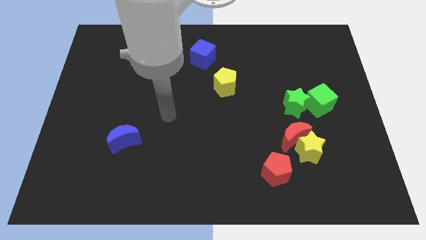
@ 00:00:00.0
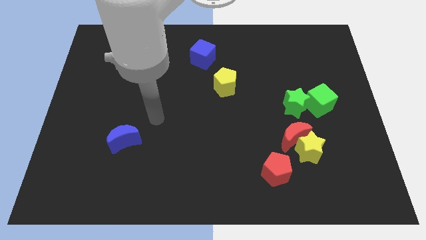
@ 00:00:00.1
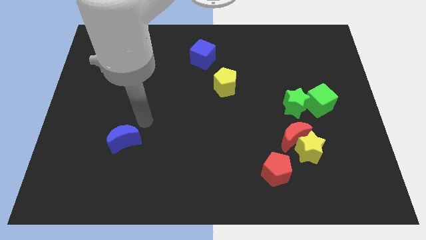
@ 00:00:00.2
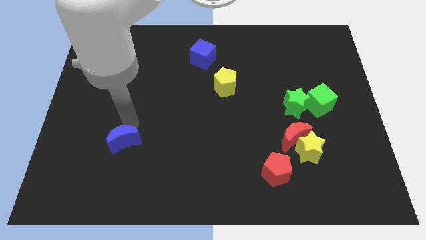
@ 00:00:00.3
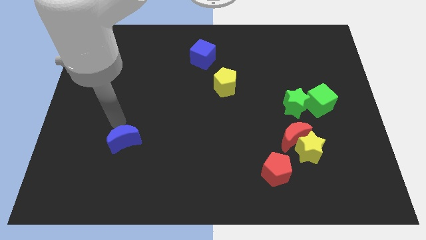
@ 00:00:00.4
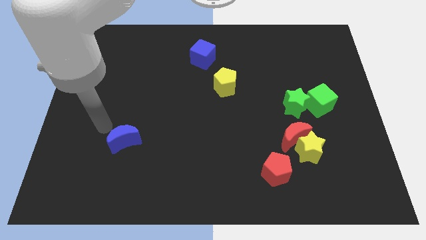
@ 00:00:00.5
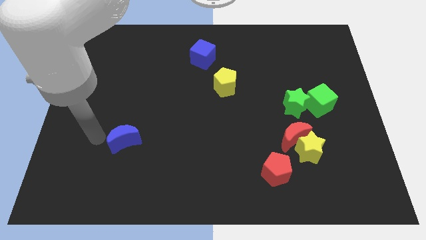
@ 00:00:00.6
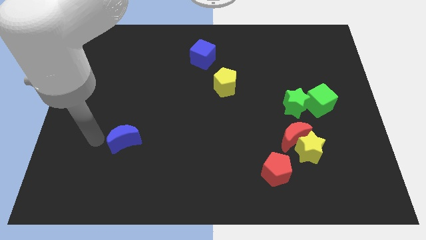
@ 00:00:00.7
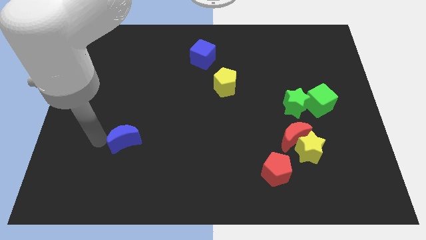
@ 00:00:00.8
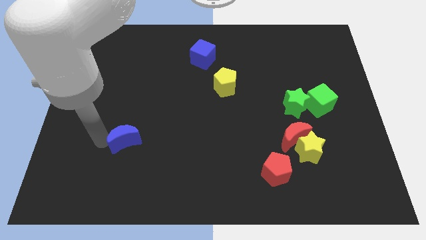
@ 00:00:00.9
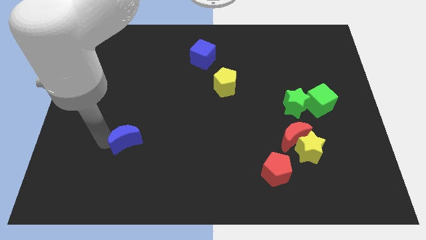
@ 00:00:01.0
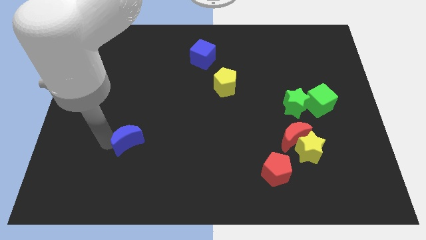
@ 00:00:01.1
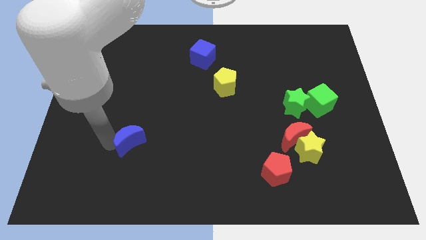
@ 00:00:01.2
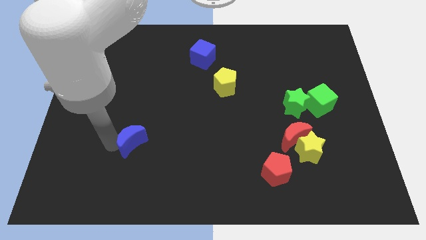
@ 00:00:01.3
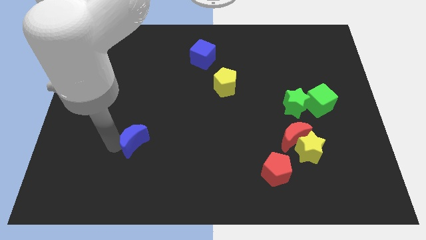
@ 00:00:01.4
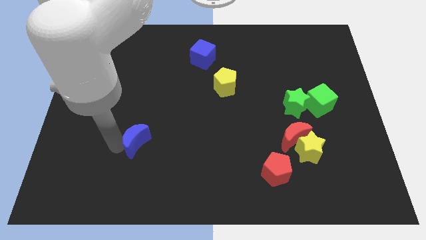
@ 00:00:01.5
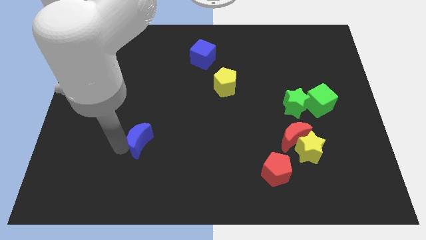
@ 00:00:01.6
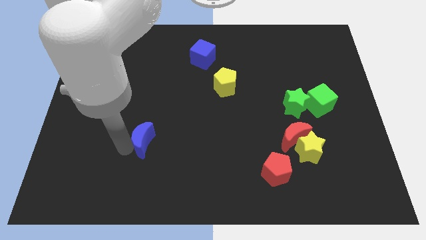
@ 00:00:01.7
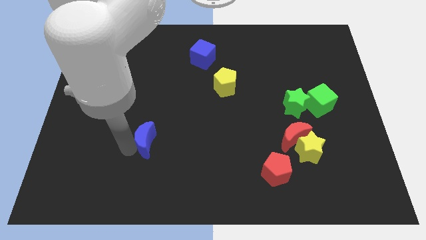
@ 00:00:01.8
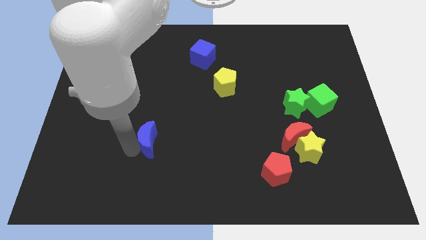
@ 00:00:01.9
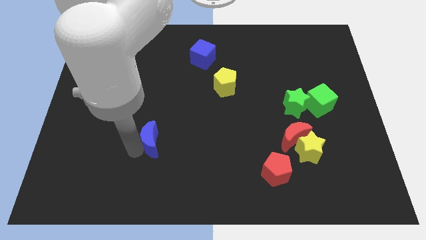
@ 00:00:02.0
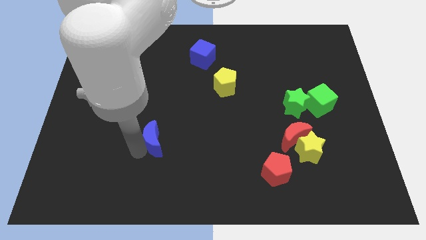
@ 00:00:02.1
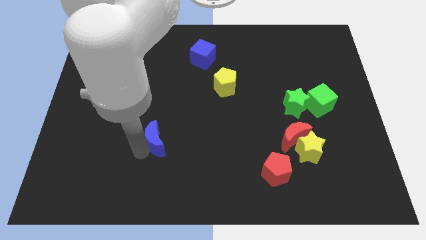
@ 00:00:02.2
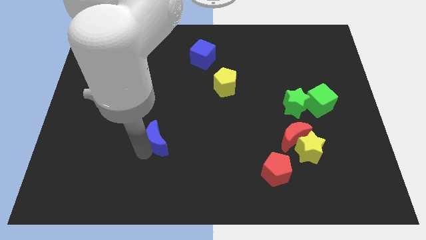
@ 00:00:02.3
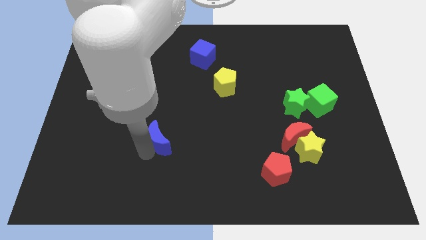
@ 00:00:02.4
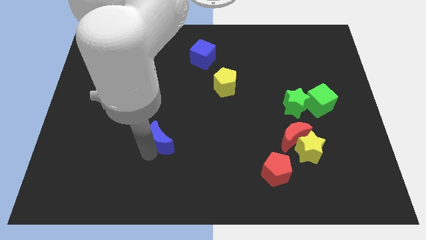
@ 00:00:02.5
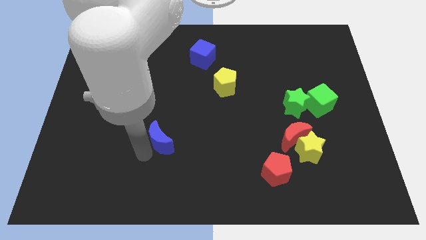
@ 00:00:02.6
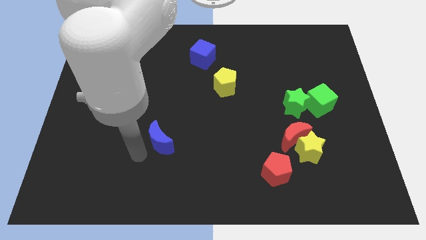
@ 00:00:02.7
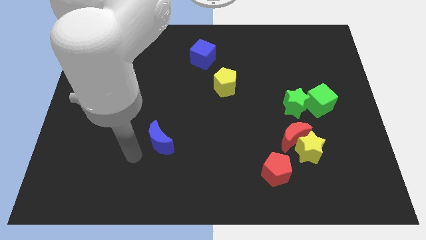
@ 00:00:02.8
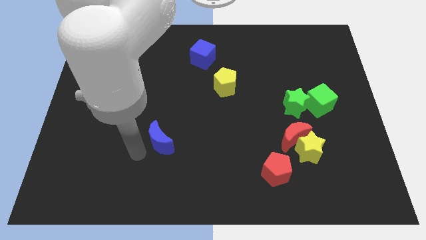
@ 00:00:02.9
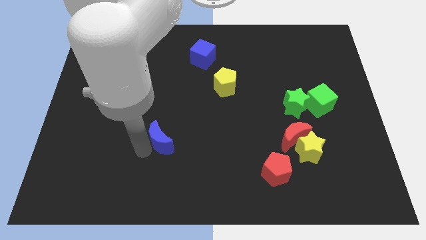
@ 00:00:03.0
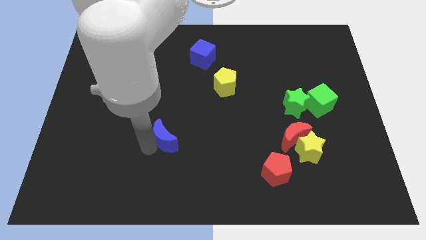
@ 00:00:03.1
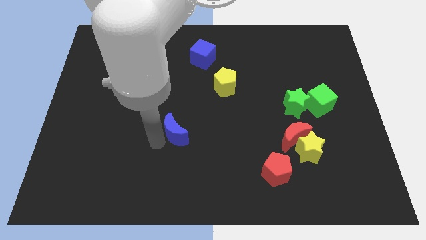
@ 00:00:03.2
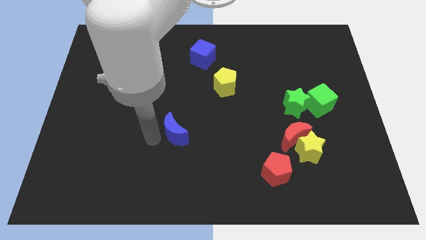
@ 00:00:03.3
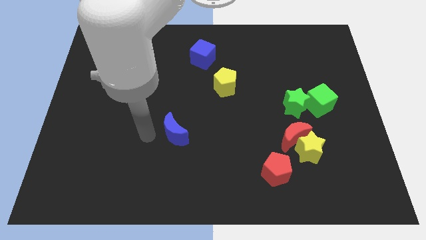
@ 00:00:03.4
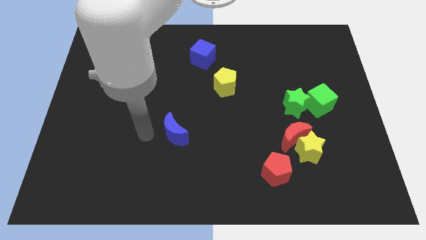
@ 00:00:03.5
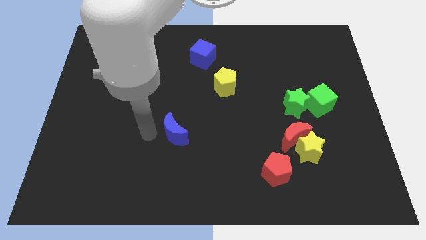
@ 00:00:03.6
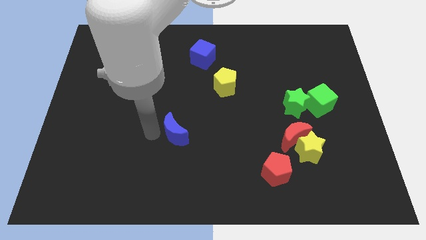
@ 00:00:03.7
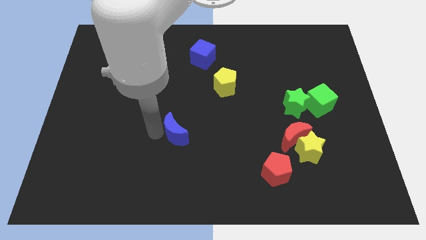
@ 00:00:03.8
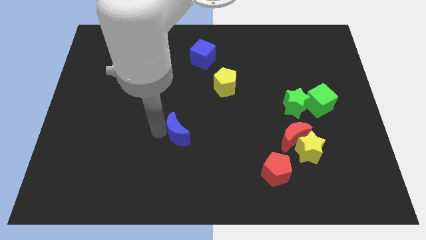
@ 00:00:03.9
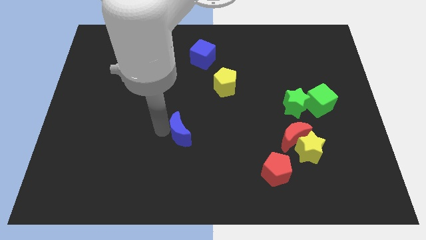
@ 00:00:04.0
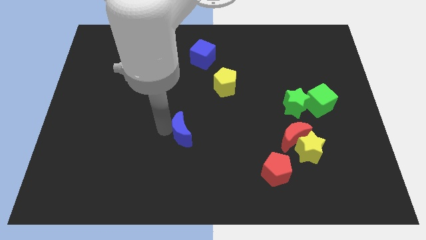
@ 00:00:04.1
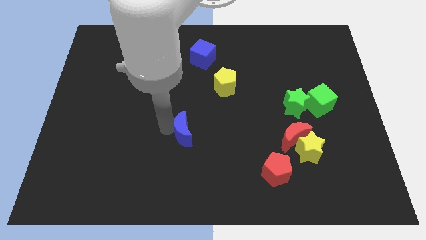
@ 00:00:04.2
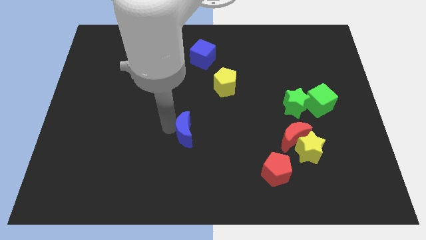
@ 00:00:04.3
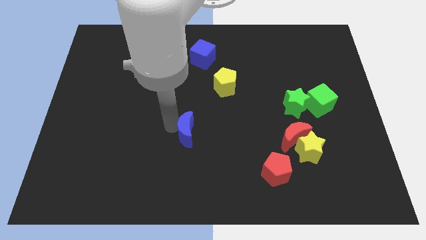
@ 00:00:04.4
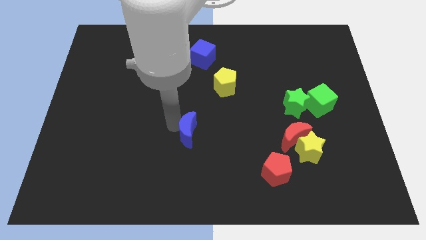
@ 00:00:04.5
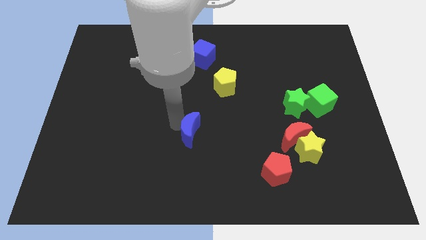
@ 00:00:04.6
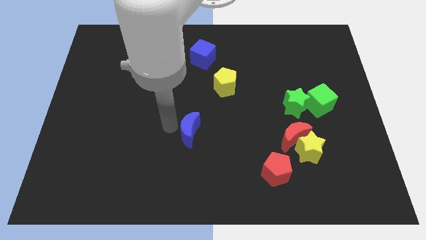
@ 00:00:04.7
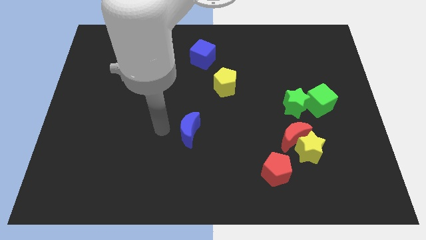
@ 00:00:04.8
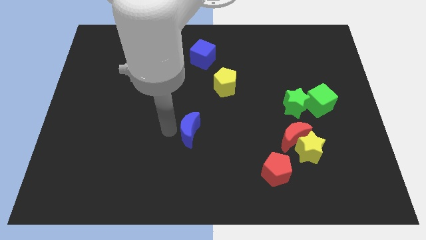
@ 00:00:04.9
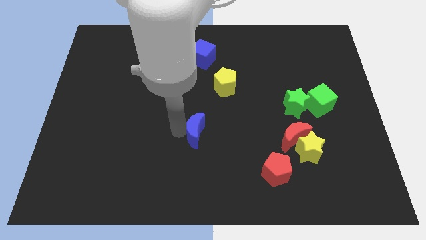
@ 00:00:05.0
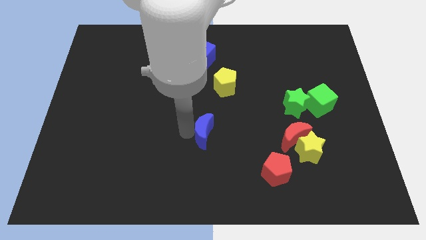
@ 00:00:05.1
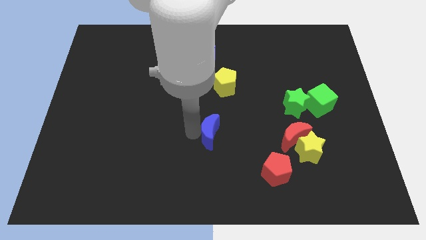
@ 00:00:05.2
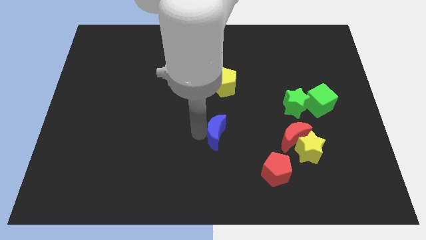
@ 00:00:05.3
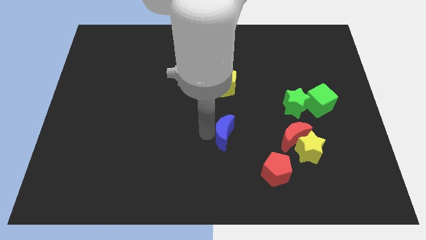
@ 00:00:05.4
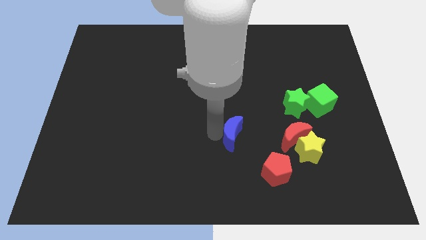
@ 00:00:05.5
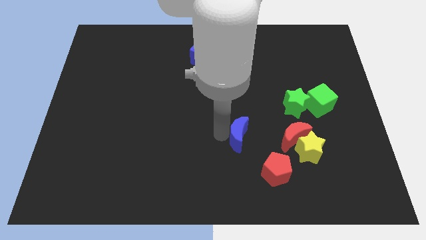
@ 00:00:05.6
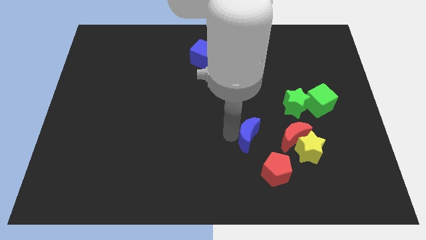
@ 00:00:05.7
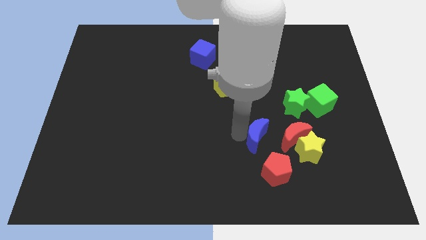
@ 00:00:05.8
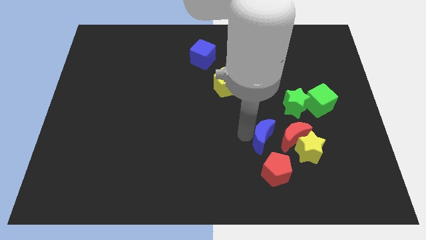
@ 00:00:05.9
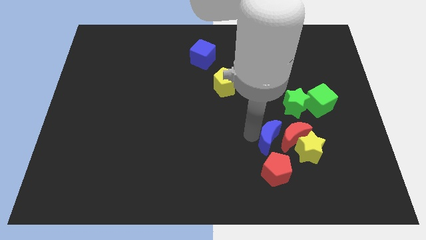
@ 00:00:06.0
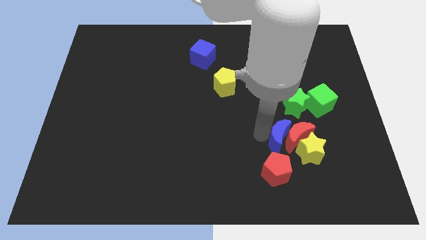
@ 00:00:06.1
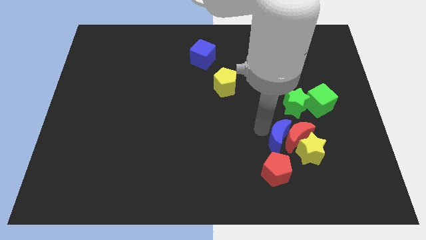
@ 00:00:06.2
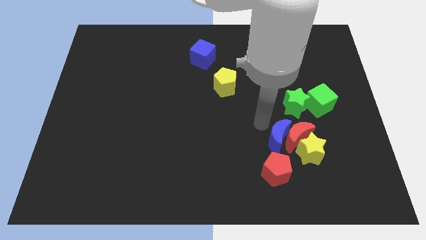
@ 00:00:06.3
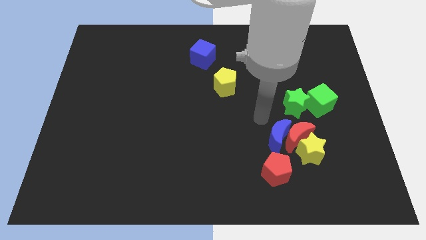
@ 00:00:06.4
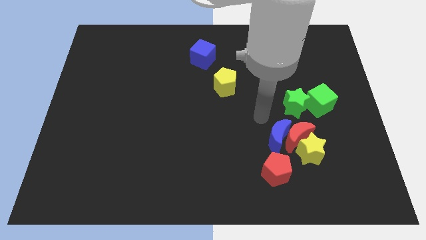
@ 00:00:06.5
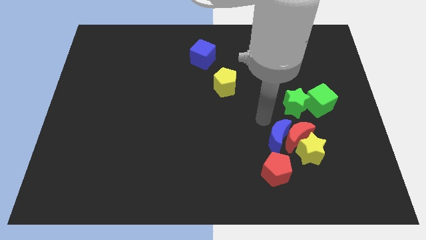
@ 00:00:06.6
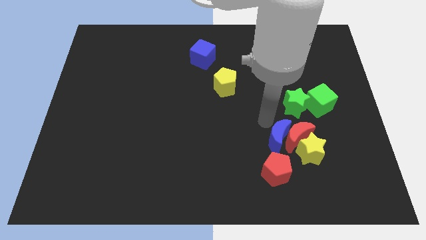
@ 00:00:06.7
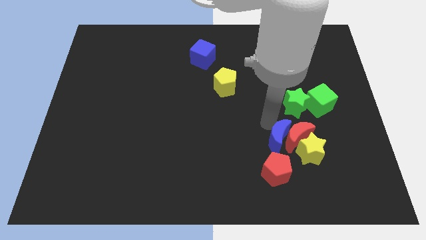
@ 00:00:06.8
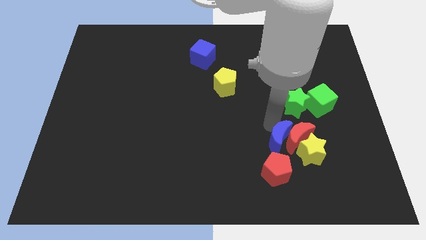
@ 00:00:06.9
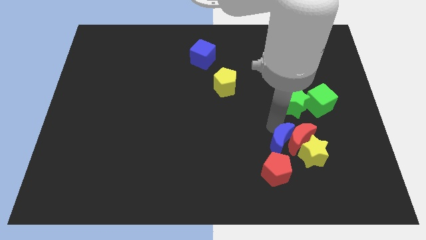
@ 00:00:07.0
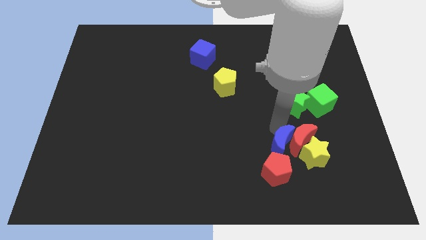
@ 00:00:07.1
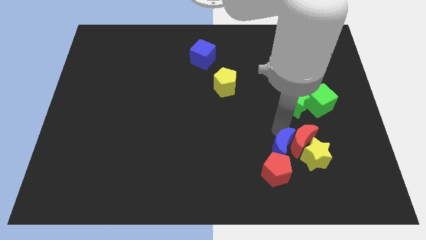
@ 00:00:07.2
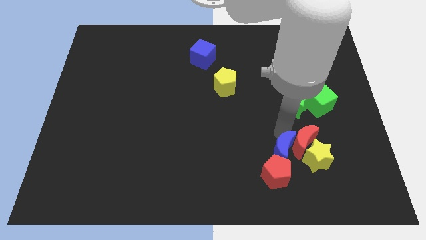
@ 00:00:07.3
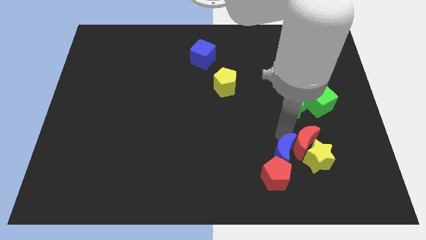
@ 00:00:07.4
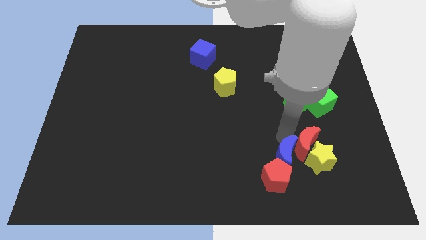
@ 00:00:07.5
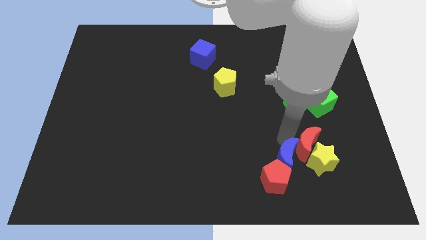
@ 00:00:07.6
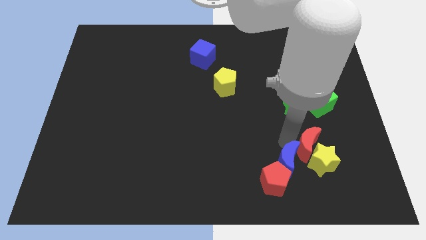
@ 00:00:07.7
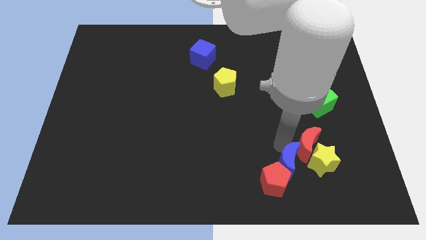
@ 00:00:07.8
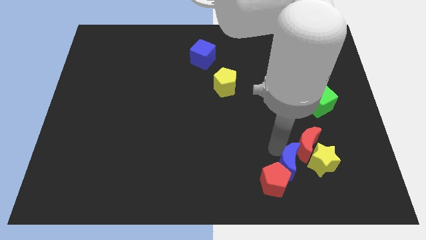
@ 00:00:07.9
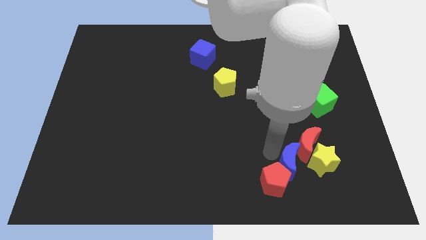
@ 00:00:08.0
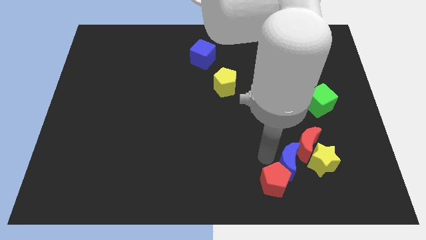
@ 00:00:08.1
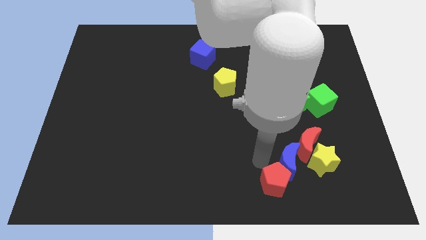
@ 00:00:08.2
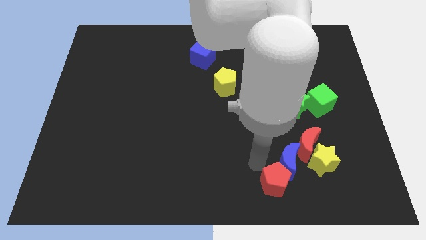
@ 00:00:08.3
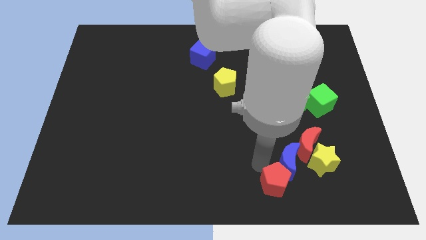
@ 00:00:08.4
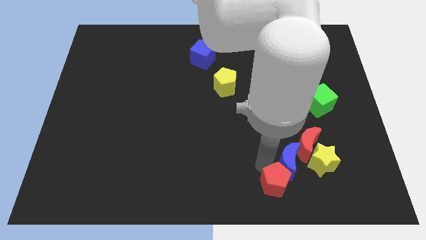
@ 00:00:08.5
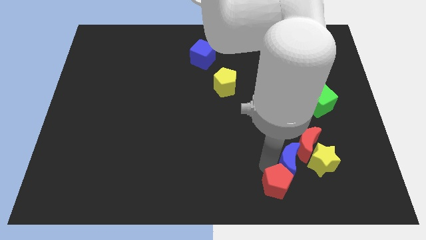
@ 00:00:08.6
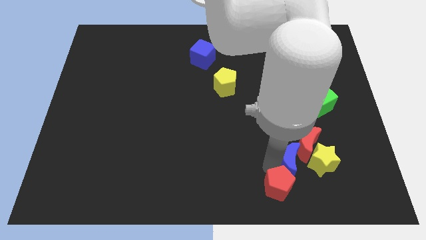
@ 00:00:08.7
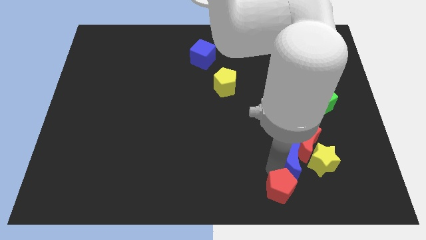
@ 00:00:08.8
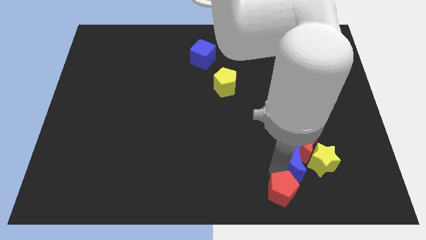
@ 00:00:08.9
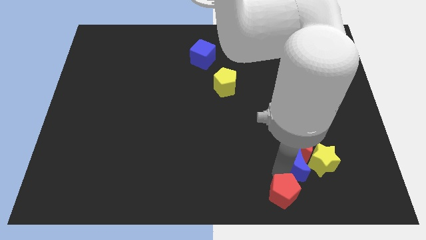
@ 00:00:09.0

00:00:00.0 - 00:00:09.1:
put the blue moon close to the yellow star
